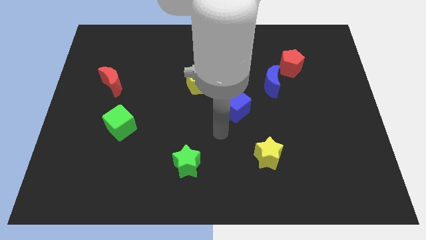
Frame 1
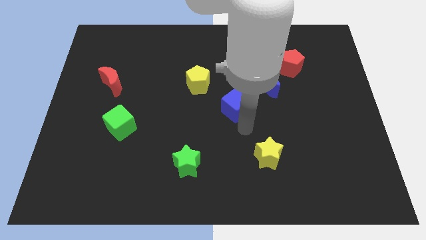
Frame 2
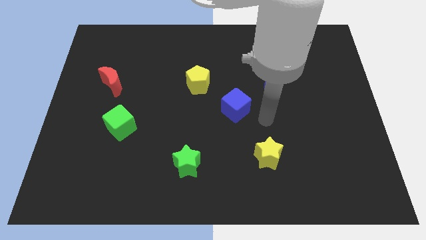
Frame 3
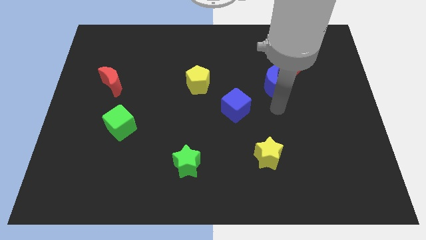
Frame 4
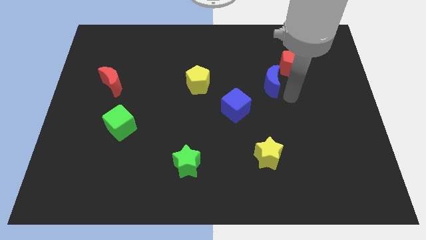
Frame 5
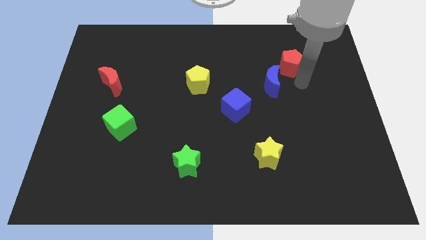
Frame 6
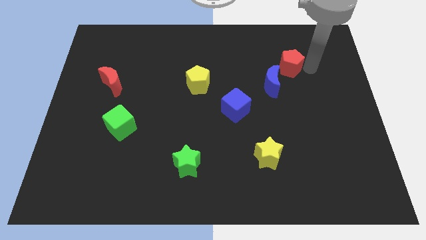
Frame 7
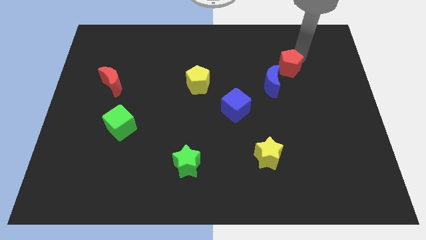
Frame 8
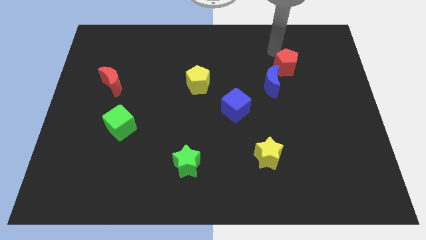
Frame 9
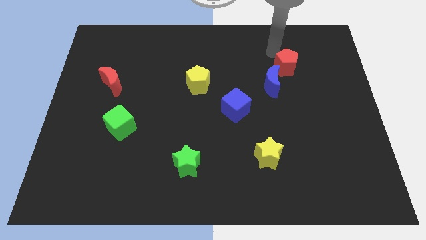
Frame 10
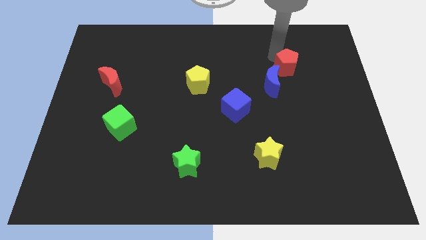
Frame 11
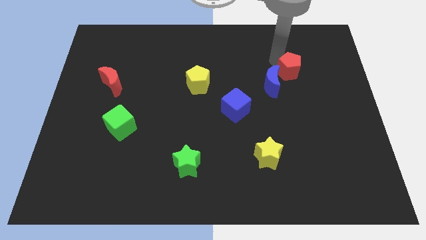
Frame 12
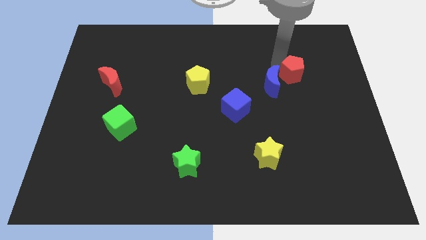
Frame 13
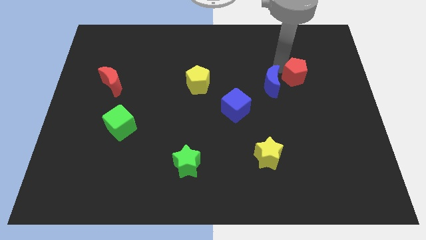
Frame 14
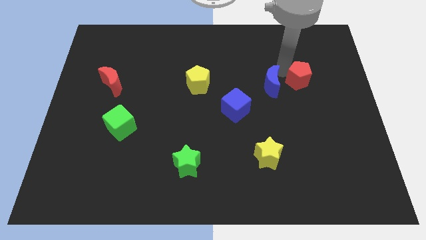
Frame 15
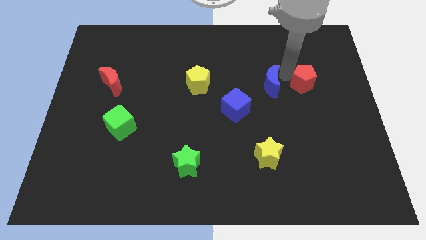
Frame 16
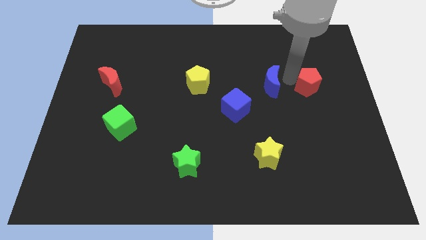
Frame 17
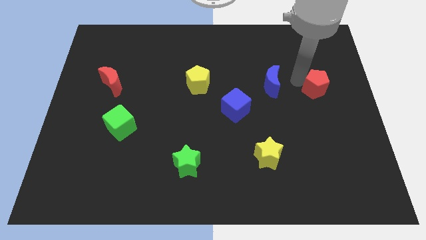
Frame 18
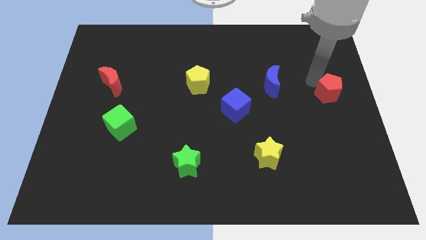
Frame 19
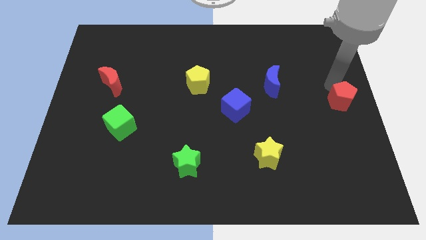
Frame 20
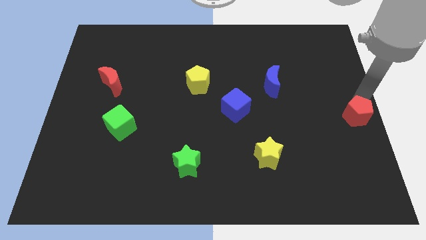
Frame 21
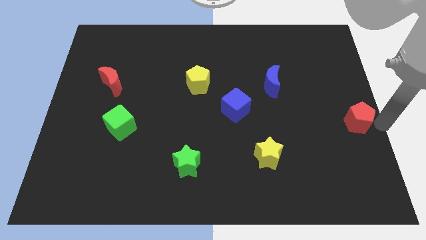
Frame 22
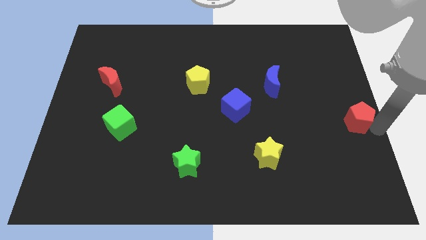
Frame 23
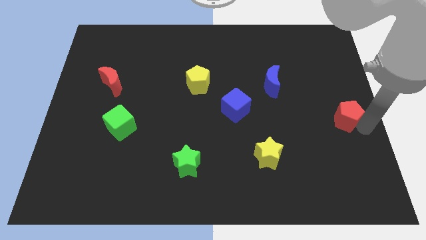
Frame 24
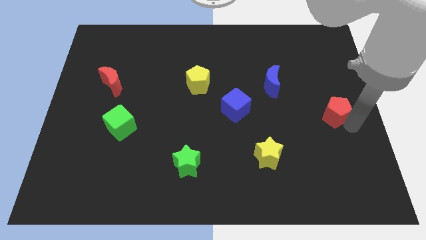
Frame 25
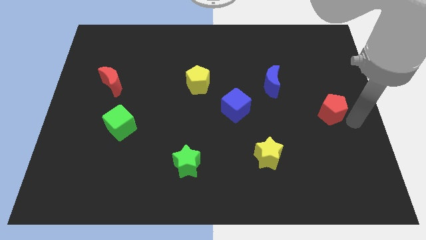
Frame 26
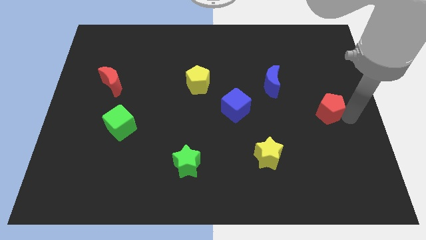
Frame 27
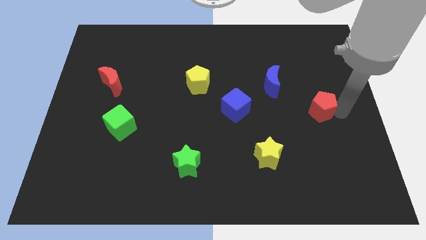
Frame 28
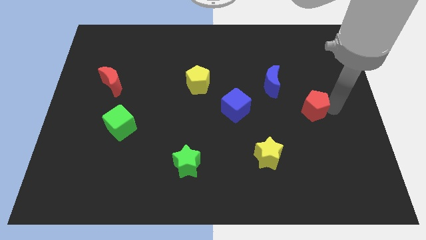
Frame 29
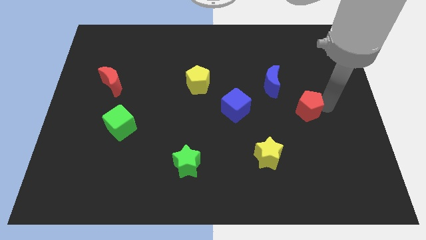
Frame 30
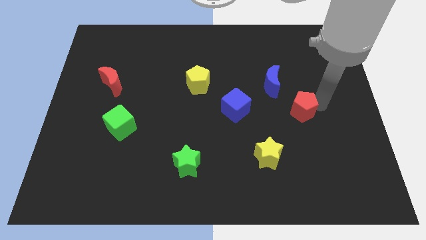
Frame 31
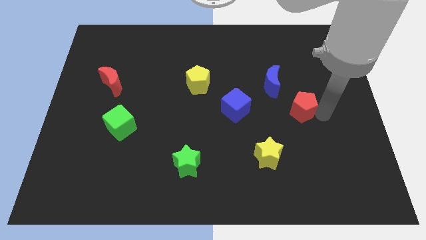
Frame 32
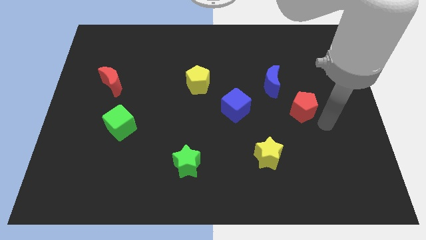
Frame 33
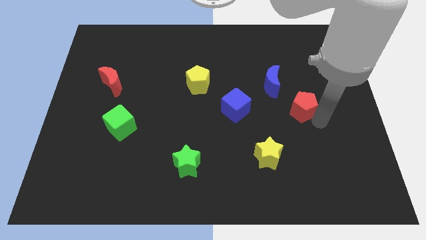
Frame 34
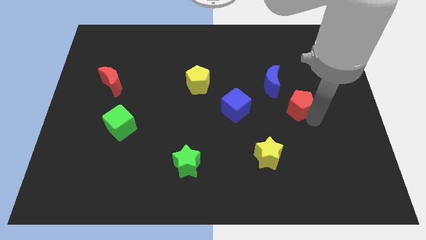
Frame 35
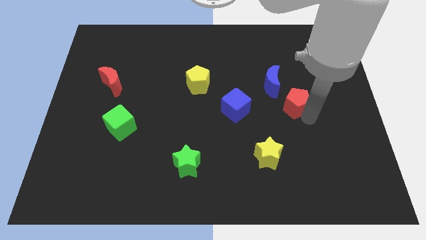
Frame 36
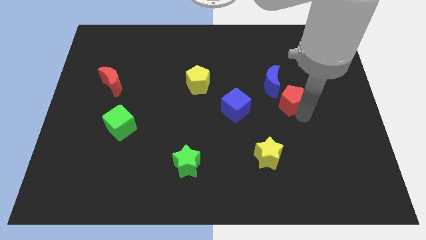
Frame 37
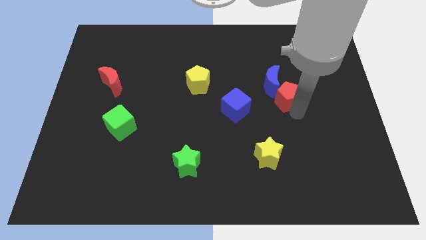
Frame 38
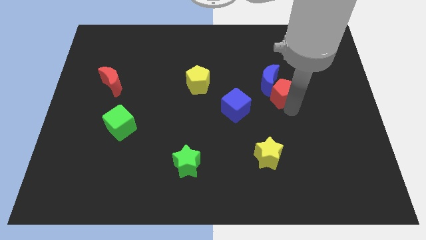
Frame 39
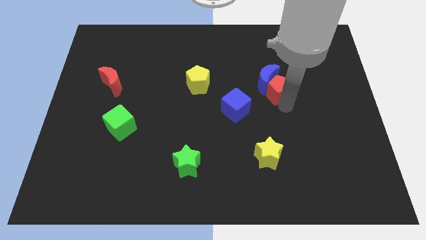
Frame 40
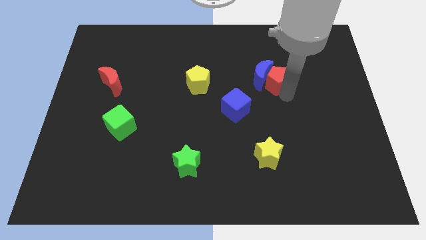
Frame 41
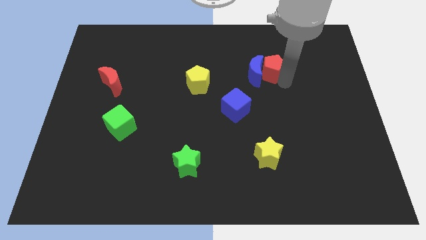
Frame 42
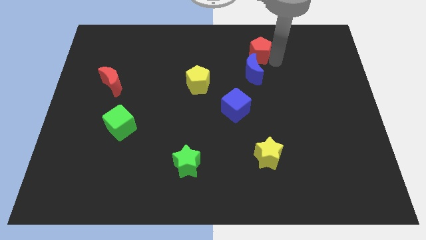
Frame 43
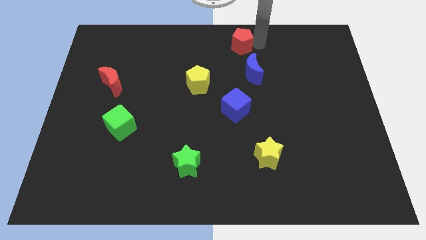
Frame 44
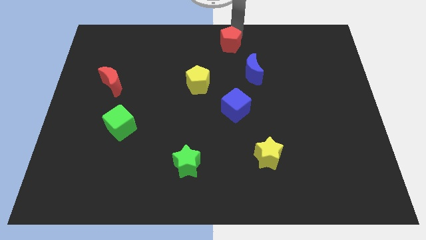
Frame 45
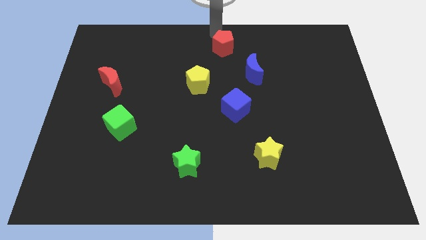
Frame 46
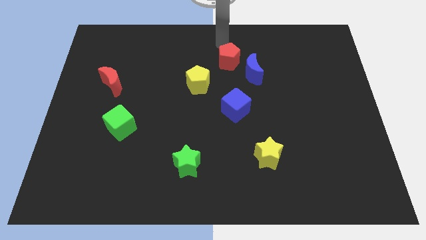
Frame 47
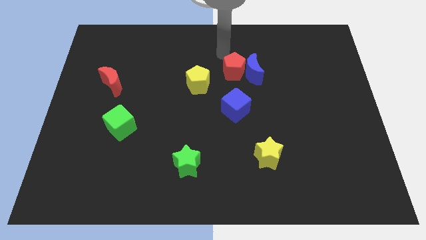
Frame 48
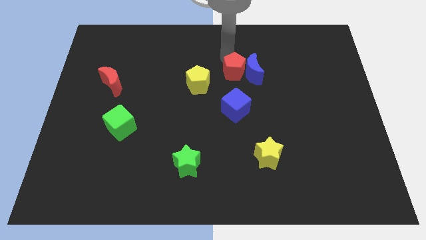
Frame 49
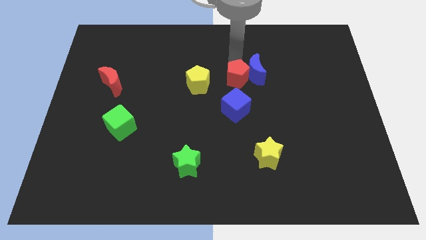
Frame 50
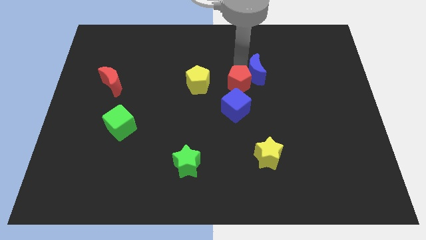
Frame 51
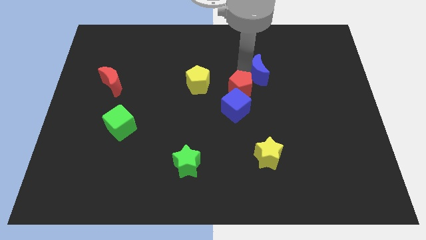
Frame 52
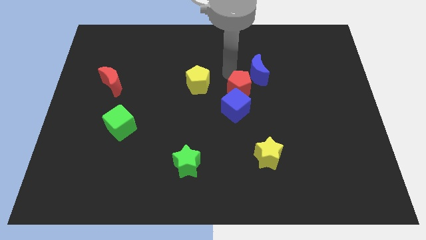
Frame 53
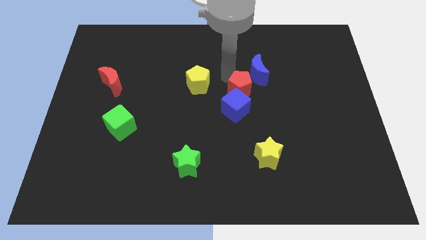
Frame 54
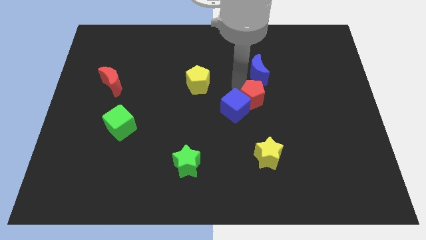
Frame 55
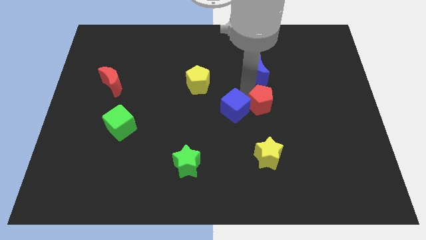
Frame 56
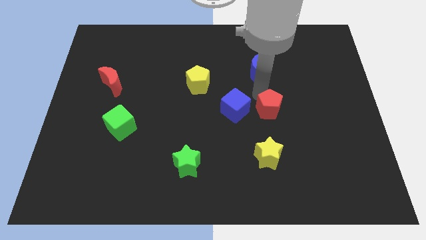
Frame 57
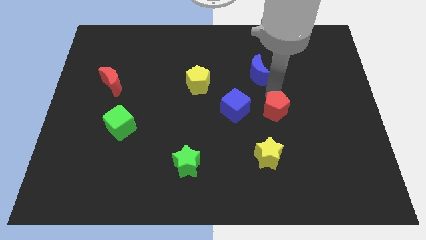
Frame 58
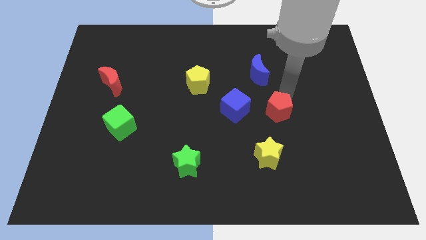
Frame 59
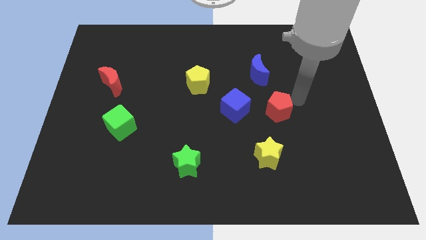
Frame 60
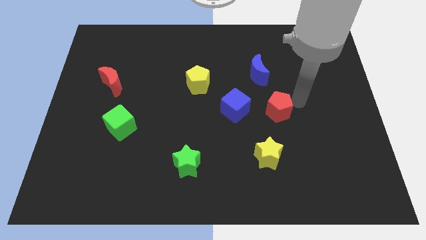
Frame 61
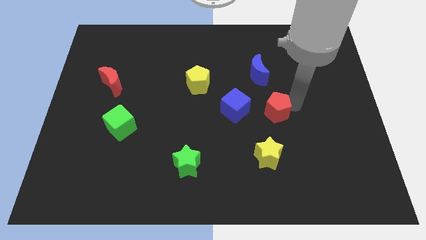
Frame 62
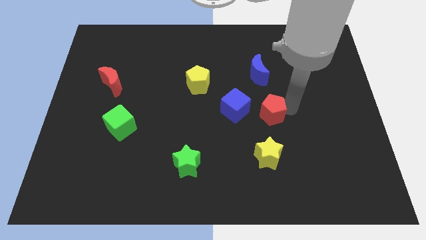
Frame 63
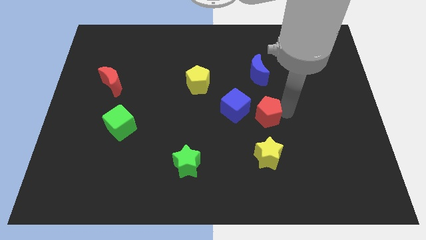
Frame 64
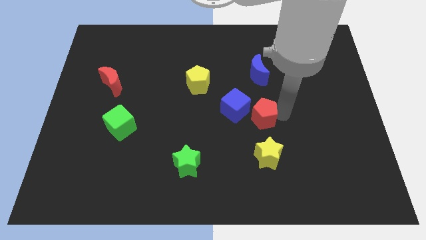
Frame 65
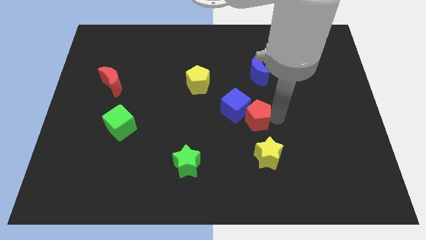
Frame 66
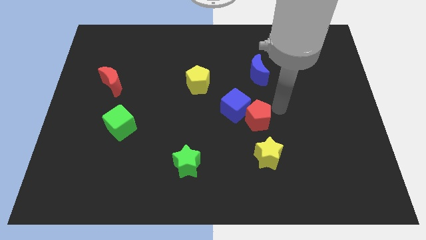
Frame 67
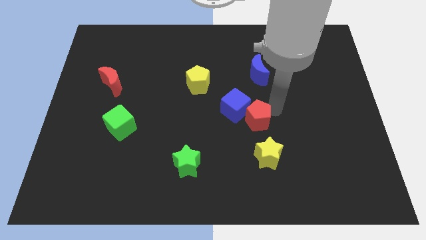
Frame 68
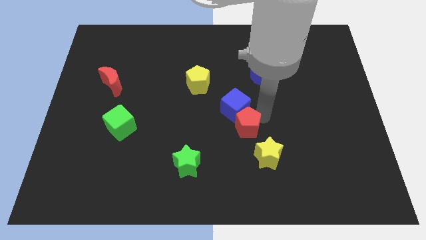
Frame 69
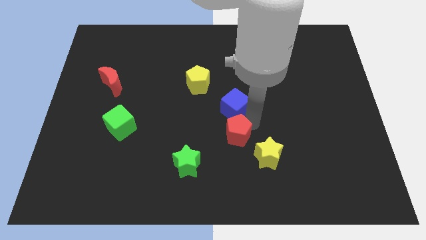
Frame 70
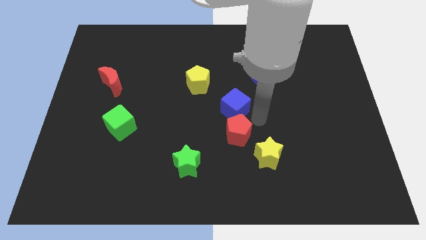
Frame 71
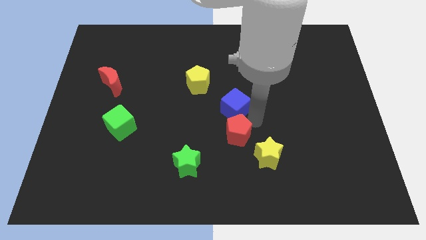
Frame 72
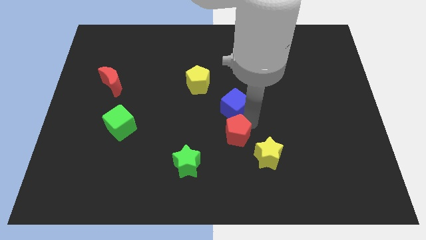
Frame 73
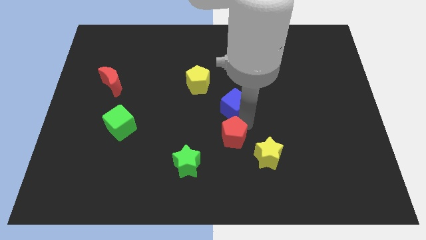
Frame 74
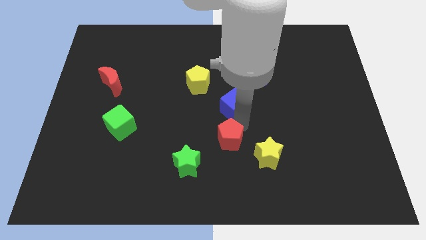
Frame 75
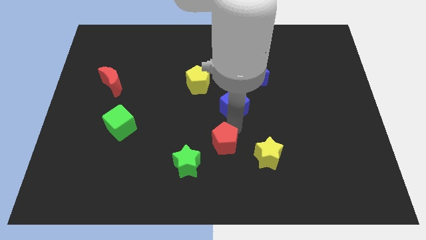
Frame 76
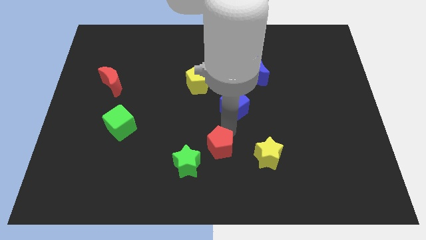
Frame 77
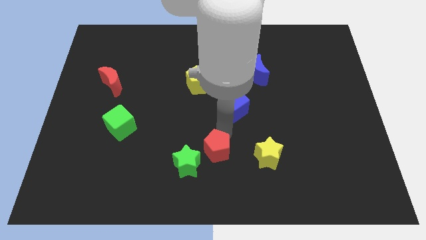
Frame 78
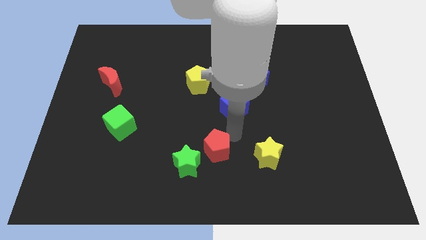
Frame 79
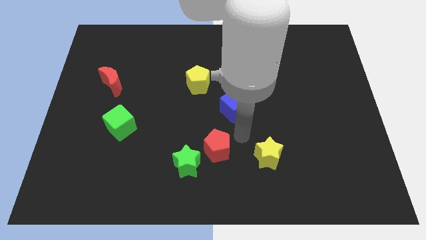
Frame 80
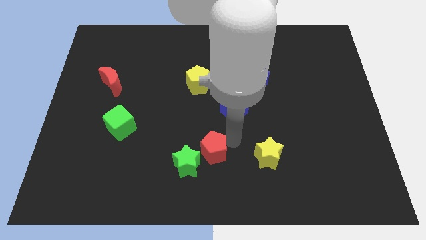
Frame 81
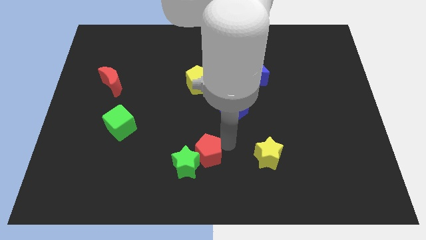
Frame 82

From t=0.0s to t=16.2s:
move the red pentagon next to the green star
